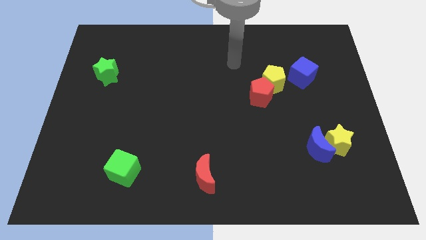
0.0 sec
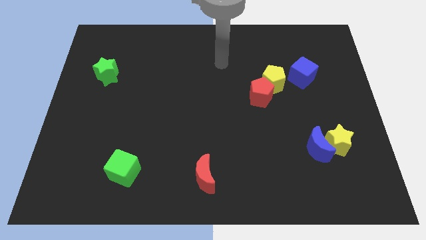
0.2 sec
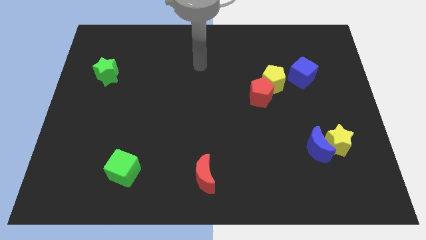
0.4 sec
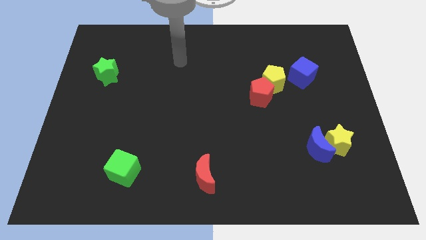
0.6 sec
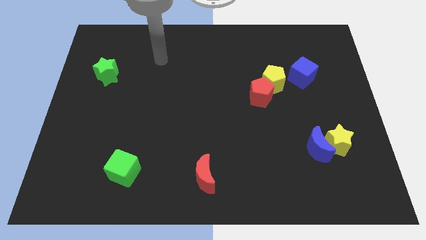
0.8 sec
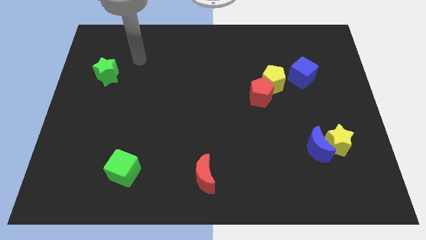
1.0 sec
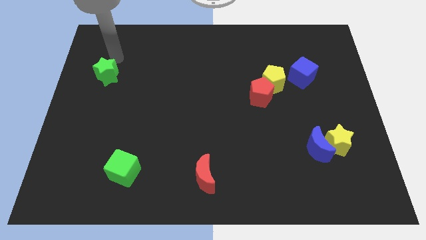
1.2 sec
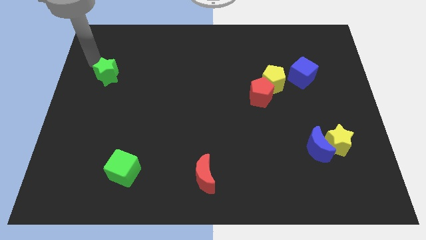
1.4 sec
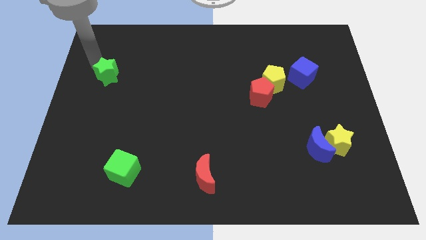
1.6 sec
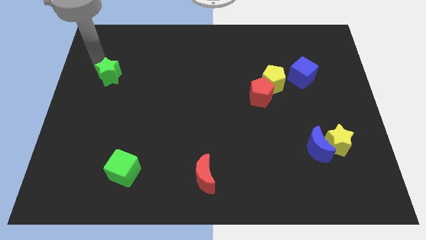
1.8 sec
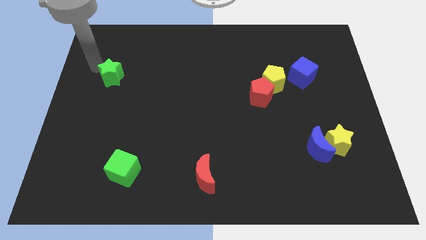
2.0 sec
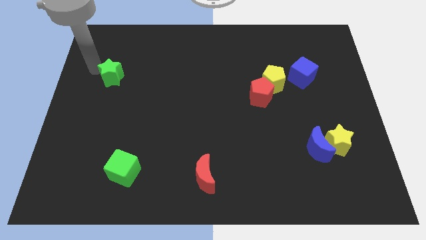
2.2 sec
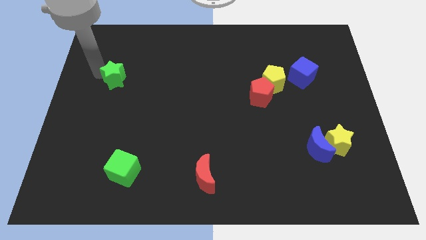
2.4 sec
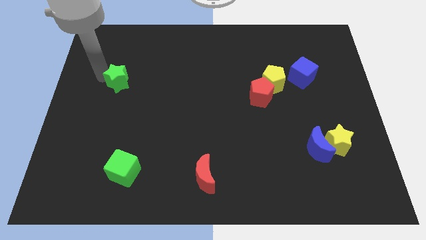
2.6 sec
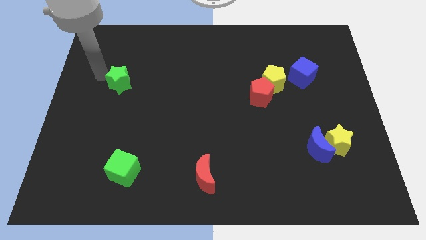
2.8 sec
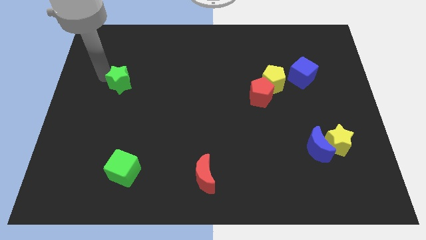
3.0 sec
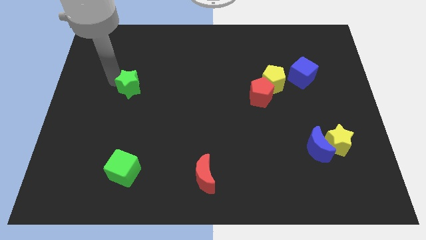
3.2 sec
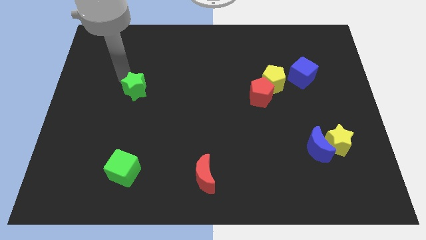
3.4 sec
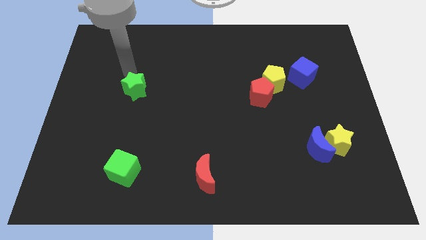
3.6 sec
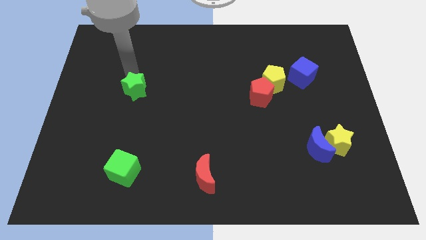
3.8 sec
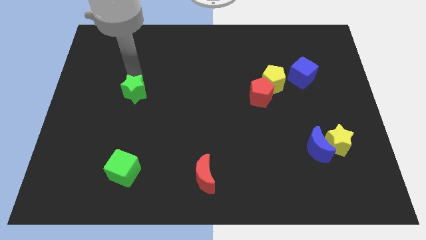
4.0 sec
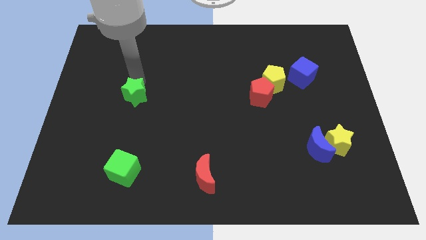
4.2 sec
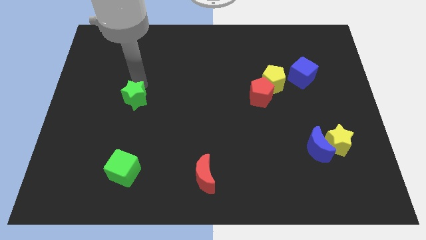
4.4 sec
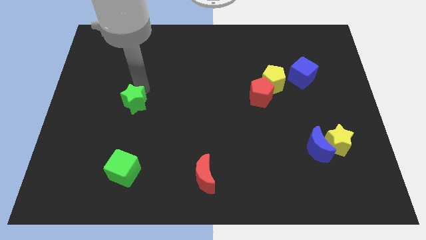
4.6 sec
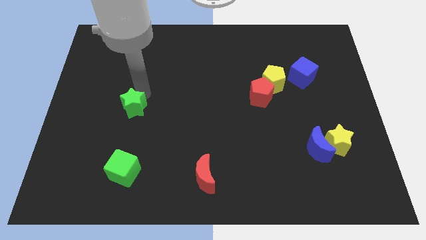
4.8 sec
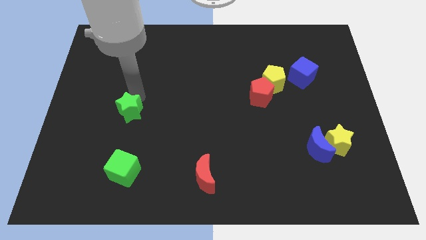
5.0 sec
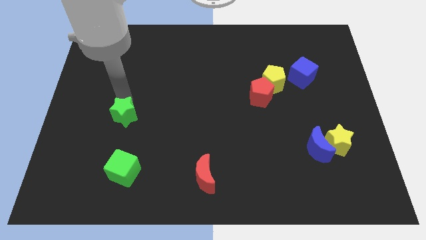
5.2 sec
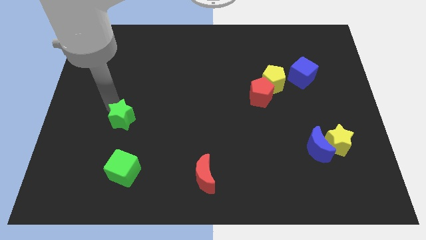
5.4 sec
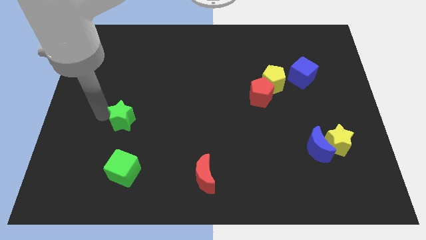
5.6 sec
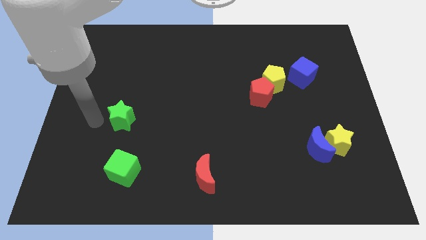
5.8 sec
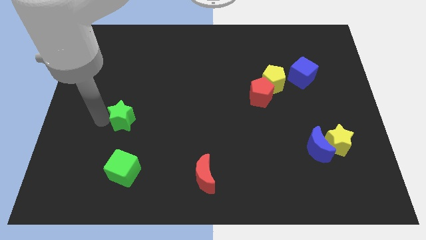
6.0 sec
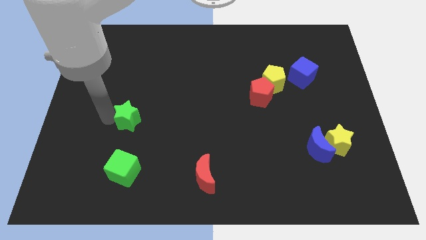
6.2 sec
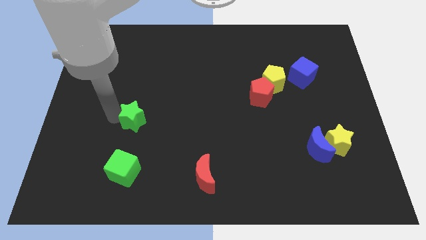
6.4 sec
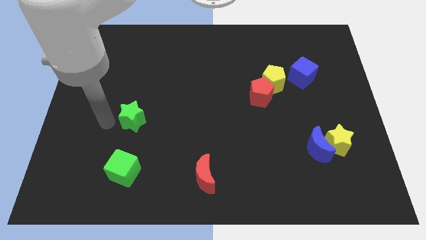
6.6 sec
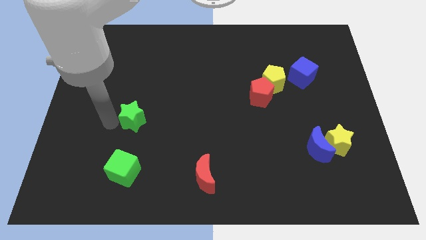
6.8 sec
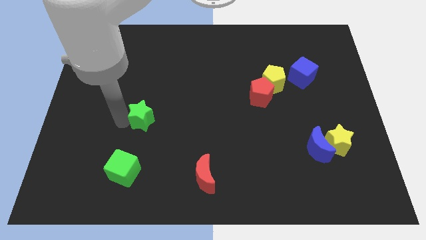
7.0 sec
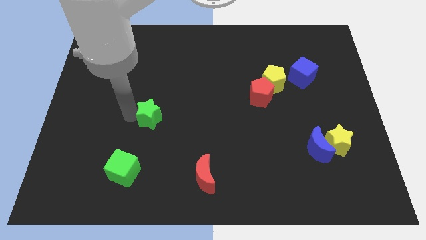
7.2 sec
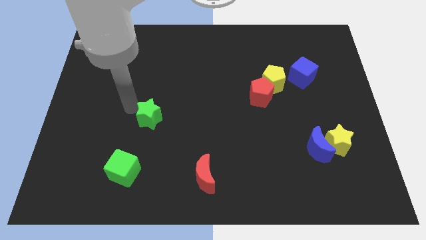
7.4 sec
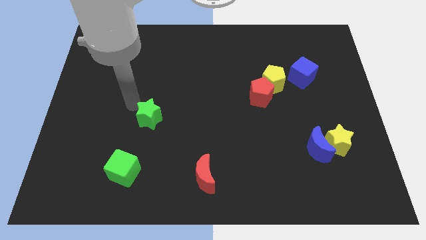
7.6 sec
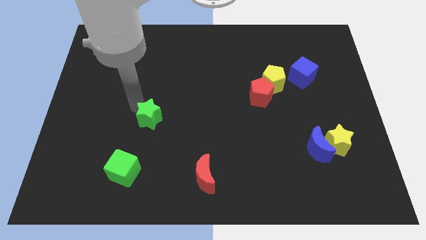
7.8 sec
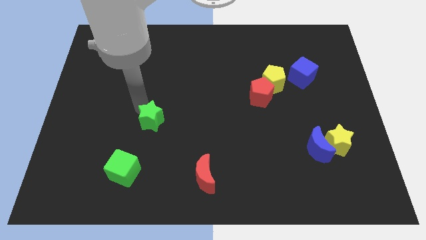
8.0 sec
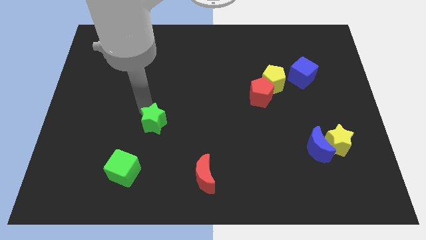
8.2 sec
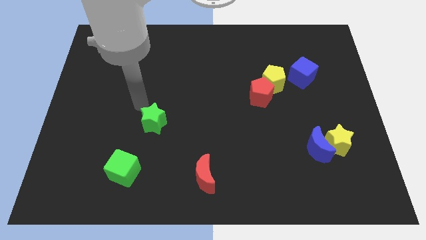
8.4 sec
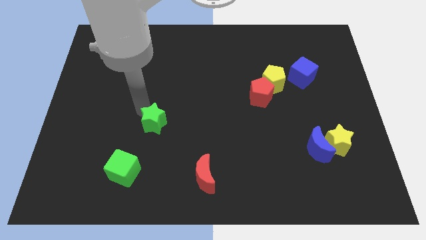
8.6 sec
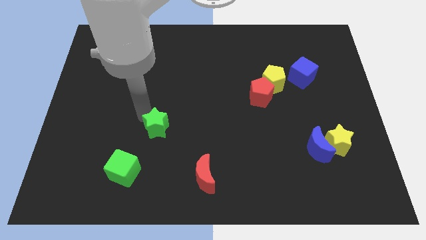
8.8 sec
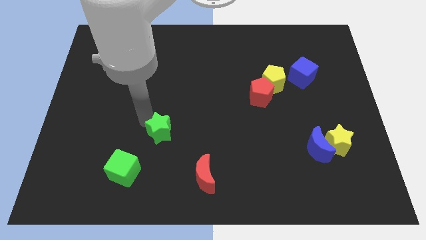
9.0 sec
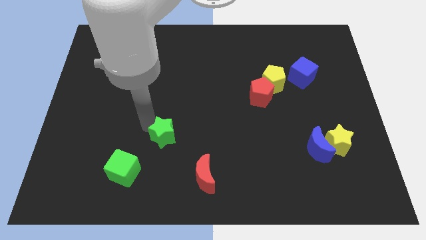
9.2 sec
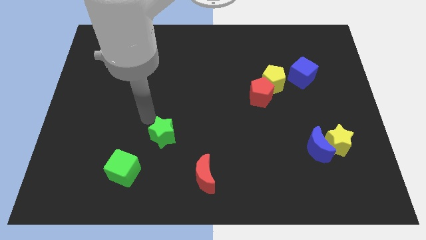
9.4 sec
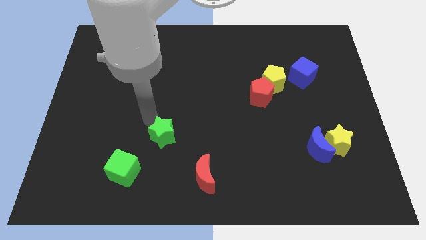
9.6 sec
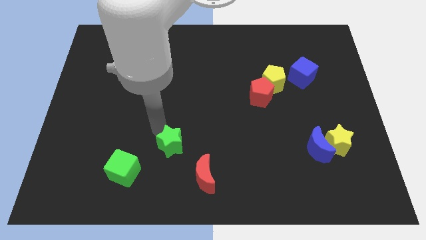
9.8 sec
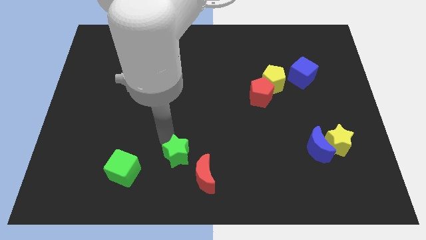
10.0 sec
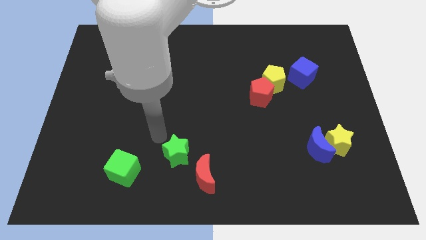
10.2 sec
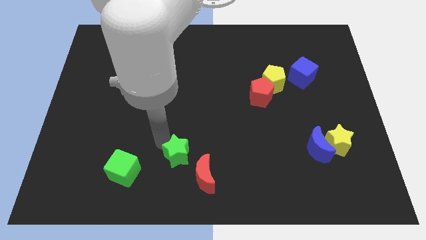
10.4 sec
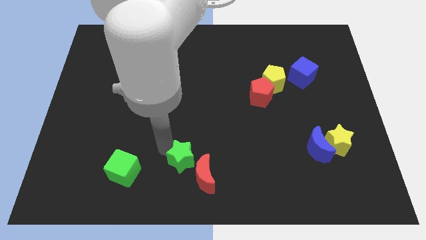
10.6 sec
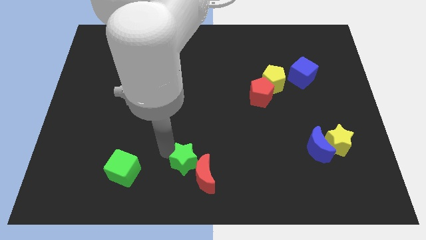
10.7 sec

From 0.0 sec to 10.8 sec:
push the green star to the red moon

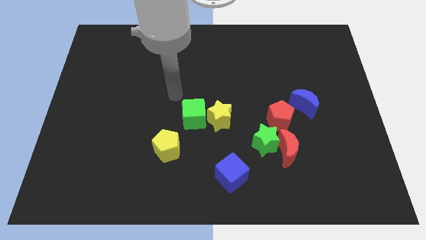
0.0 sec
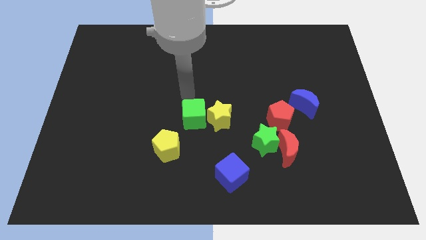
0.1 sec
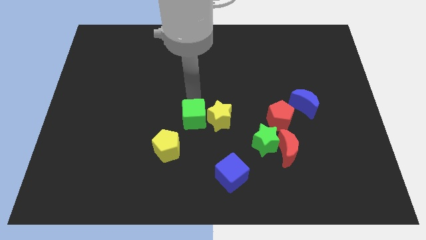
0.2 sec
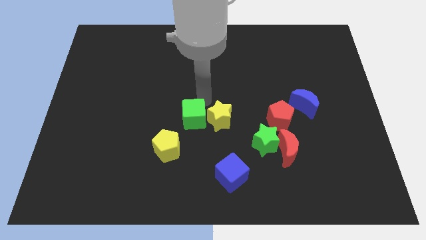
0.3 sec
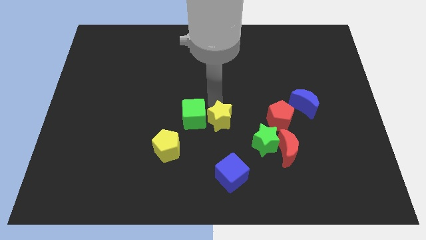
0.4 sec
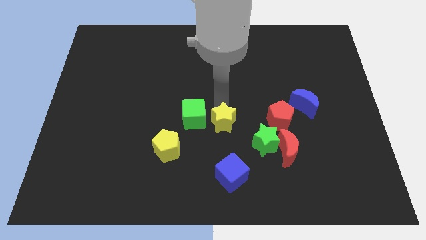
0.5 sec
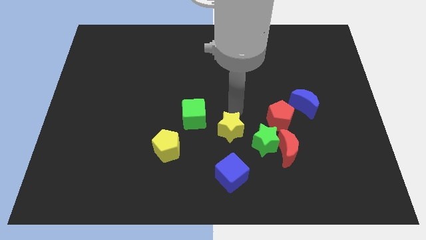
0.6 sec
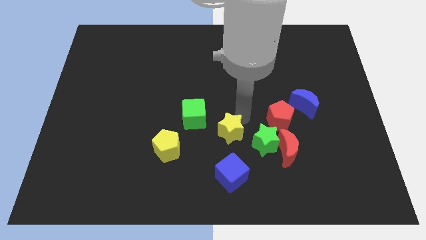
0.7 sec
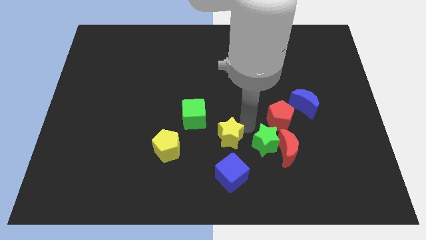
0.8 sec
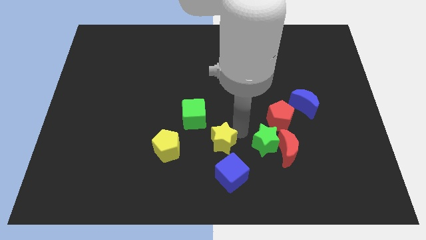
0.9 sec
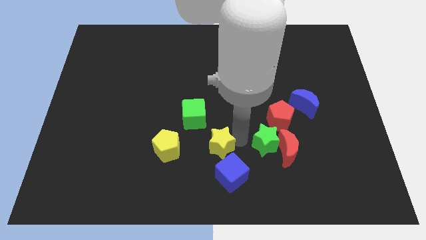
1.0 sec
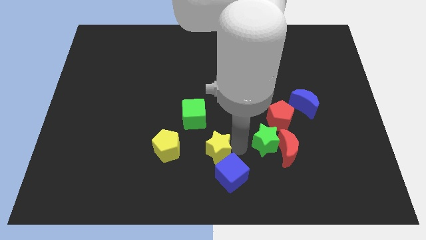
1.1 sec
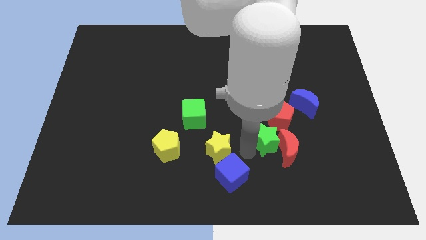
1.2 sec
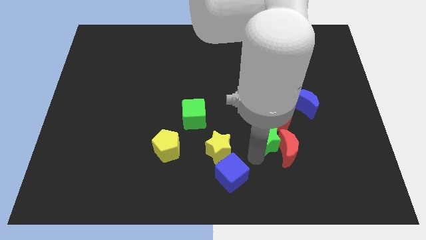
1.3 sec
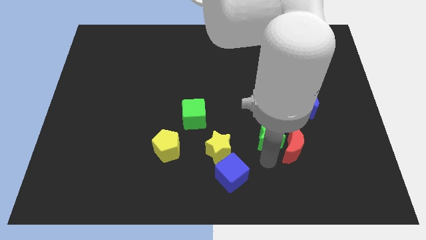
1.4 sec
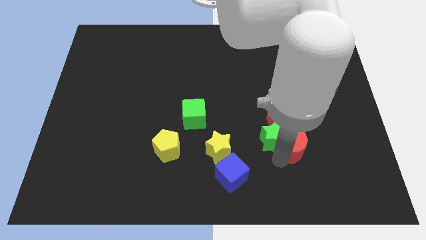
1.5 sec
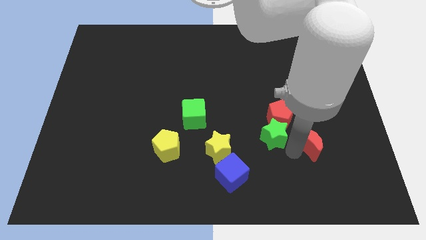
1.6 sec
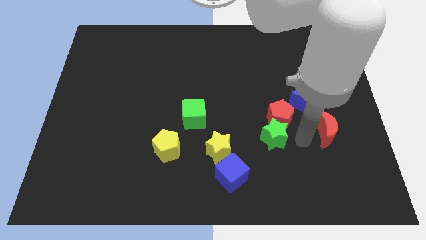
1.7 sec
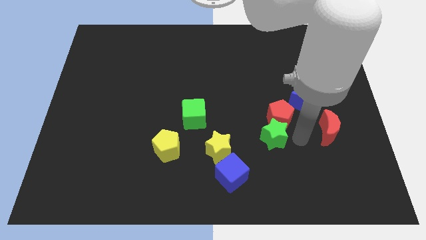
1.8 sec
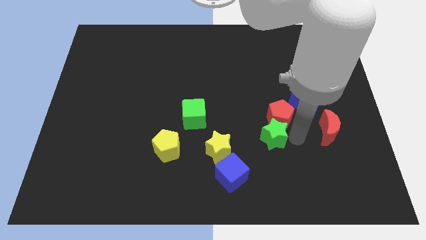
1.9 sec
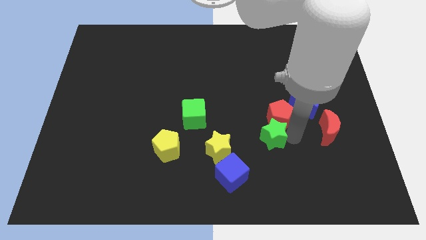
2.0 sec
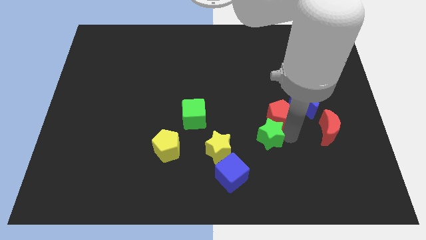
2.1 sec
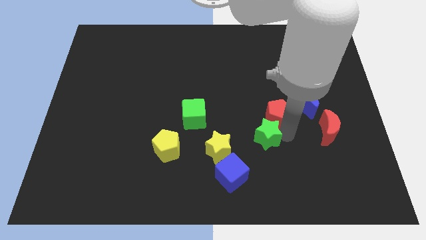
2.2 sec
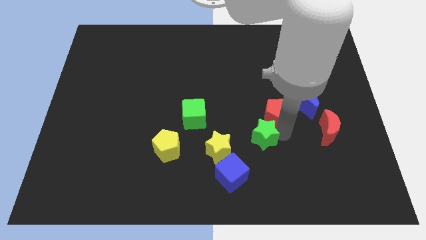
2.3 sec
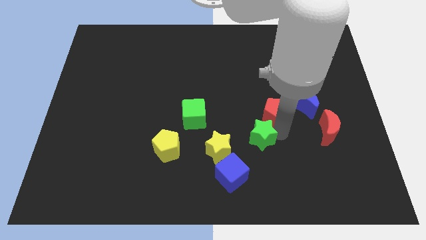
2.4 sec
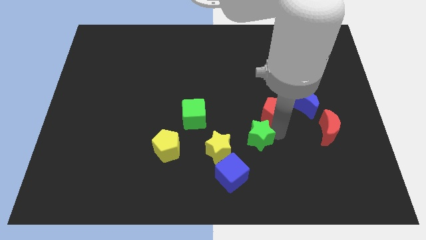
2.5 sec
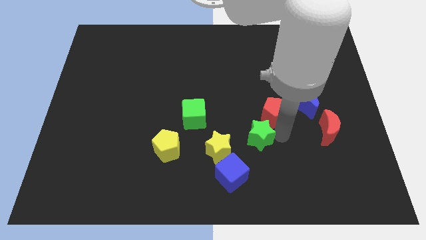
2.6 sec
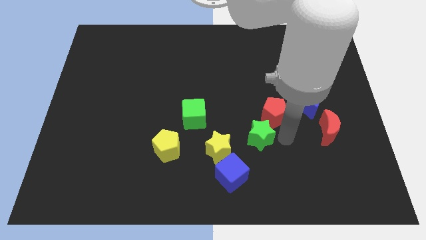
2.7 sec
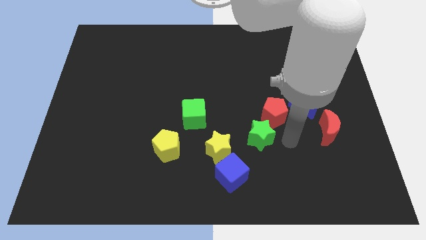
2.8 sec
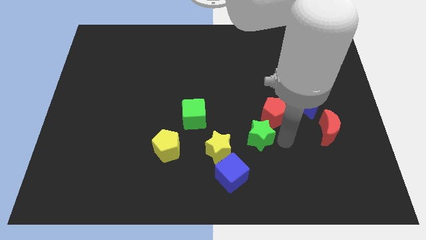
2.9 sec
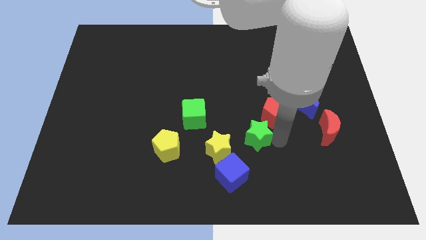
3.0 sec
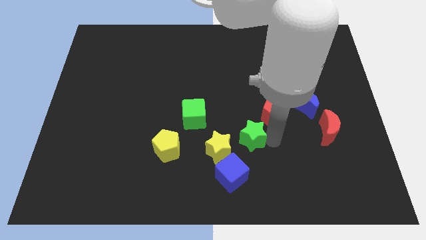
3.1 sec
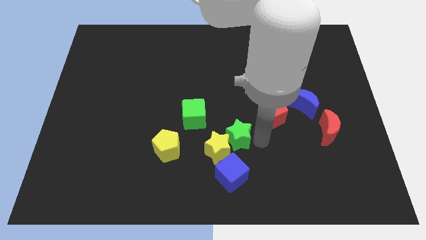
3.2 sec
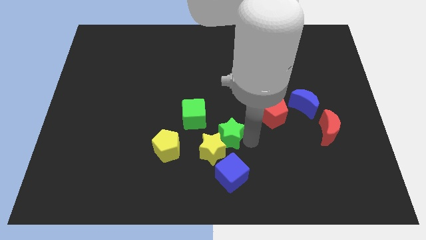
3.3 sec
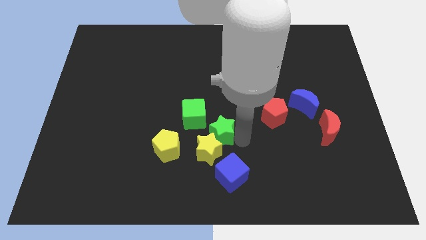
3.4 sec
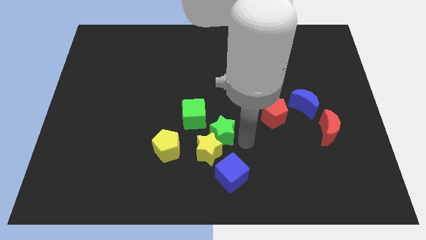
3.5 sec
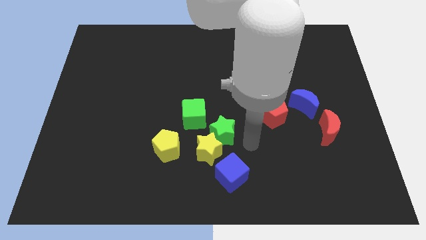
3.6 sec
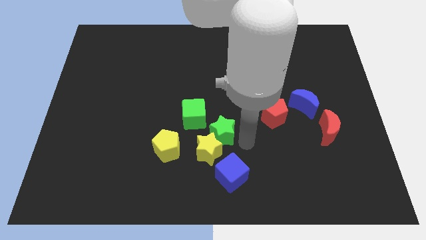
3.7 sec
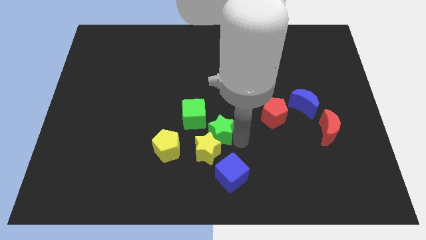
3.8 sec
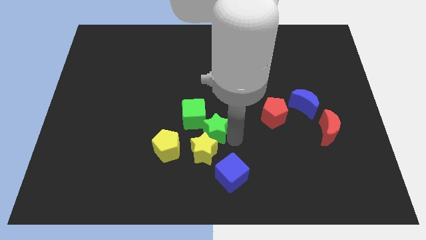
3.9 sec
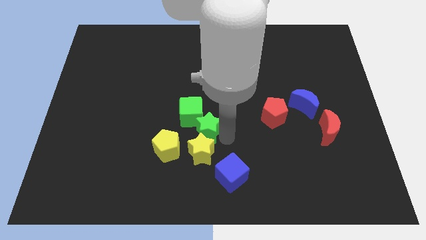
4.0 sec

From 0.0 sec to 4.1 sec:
put the green star close to the green cube
